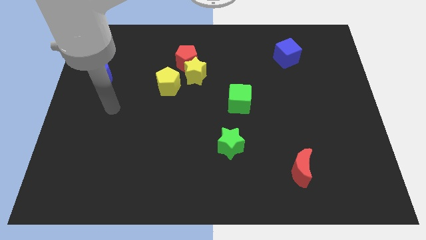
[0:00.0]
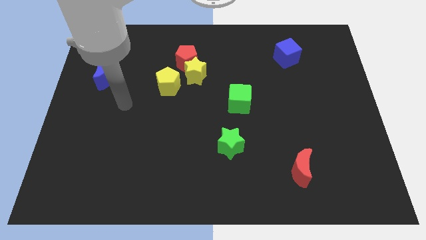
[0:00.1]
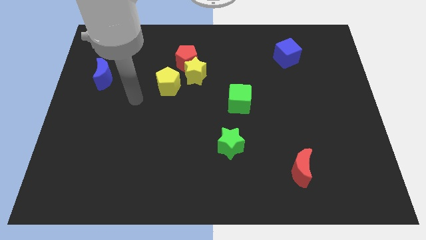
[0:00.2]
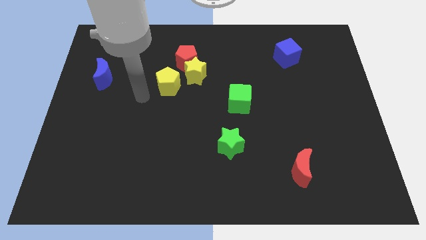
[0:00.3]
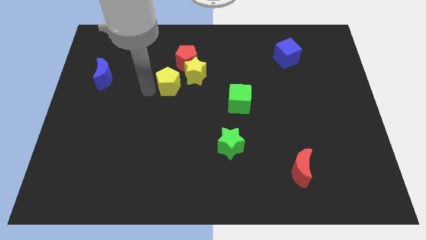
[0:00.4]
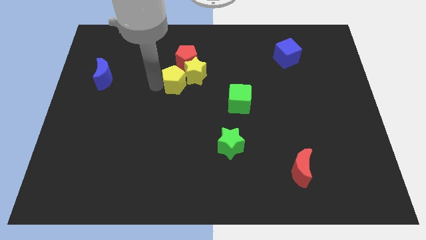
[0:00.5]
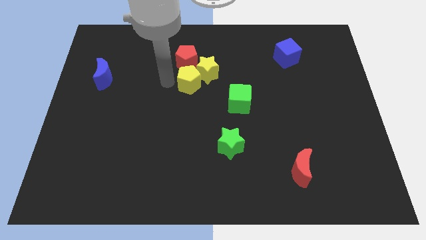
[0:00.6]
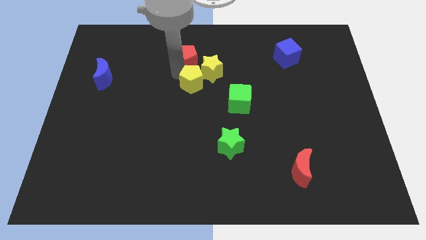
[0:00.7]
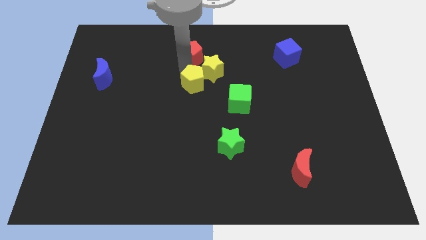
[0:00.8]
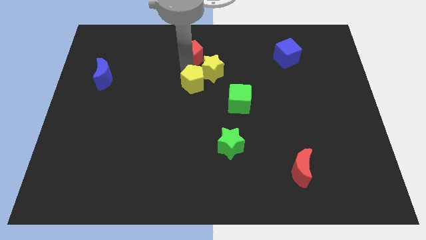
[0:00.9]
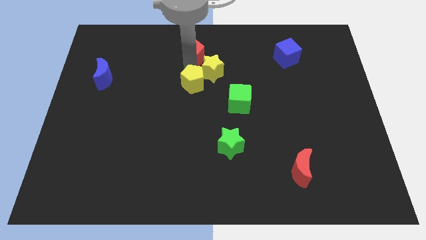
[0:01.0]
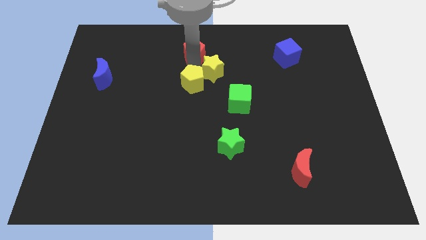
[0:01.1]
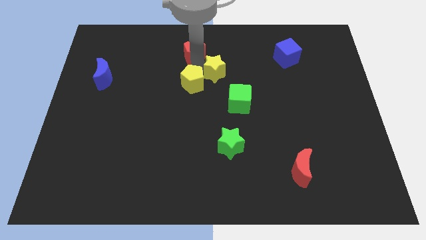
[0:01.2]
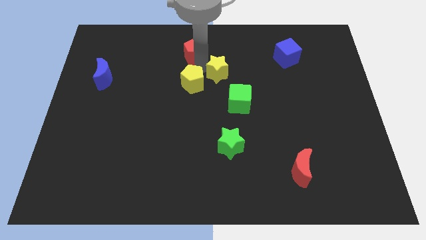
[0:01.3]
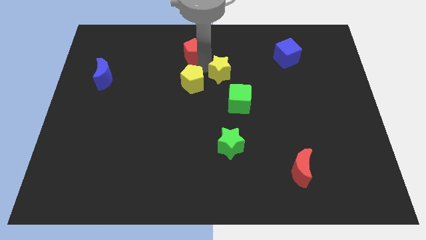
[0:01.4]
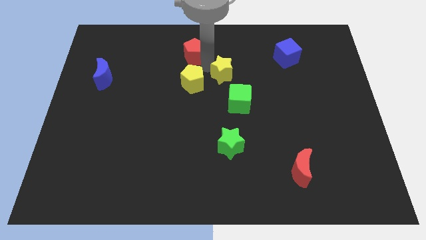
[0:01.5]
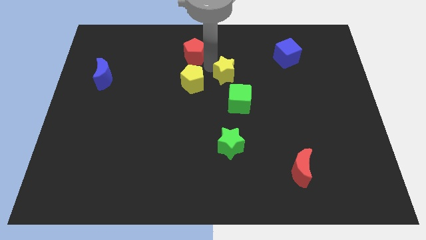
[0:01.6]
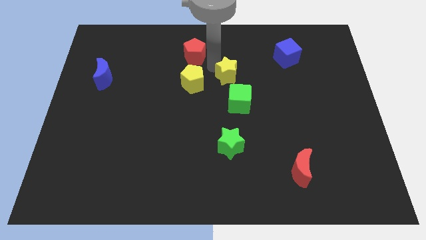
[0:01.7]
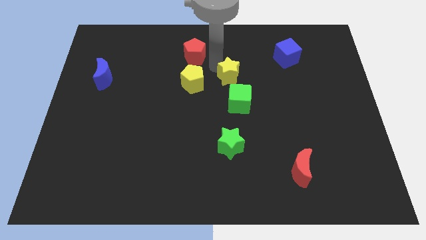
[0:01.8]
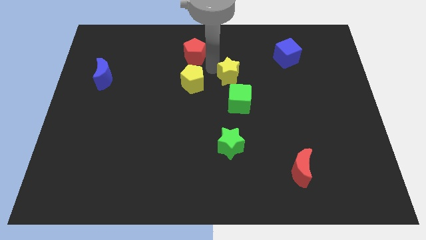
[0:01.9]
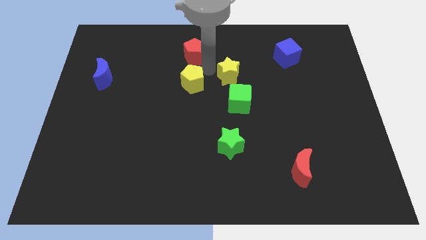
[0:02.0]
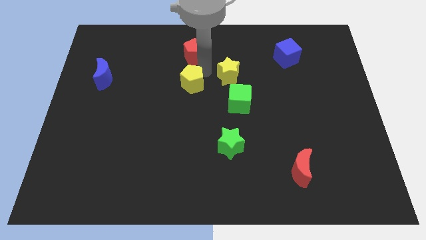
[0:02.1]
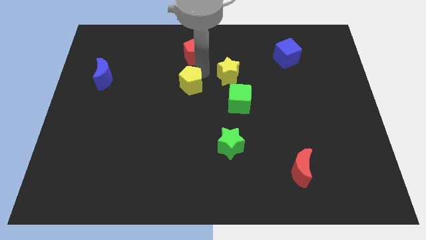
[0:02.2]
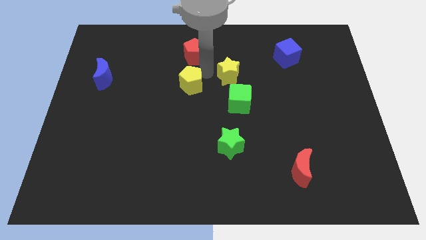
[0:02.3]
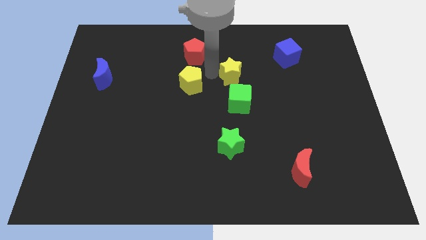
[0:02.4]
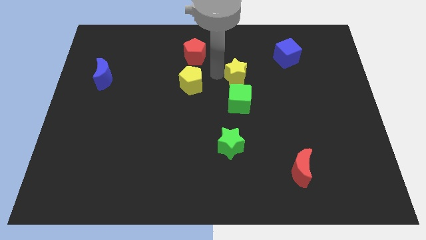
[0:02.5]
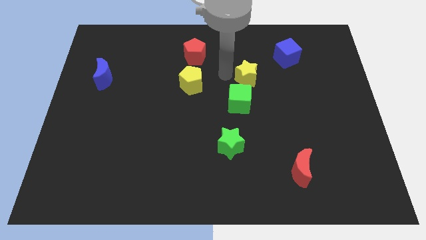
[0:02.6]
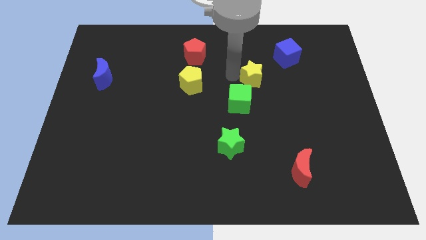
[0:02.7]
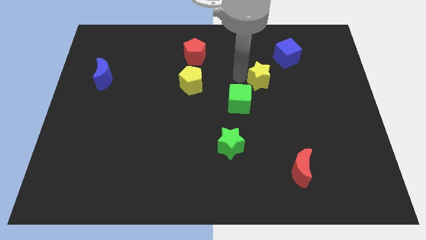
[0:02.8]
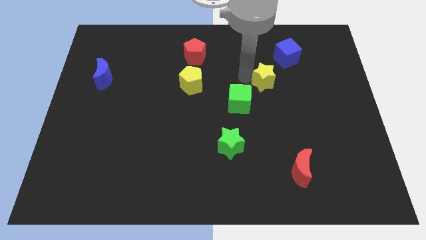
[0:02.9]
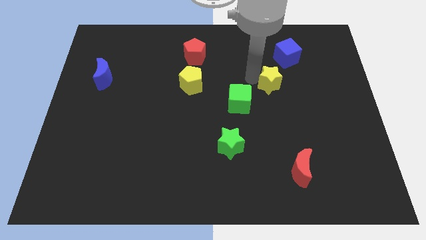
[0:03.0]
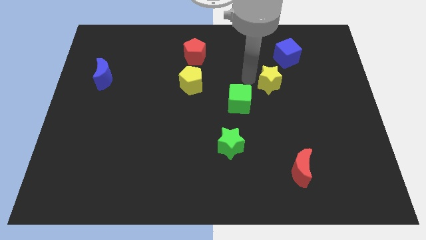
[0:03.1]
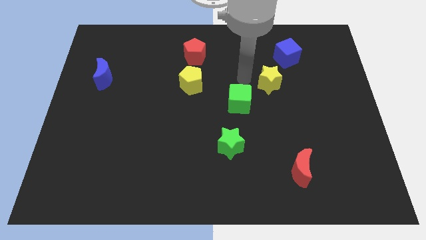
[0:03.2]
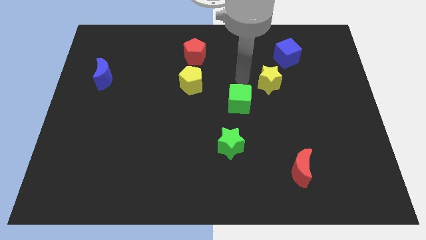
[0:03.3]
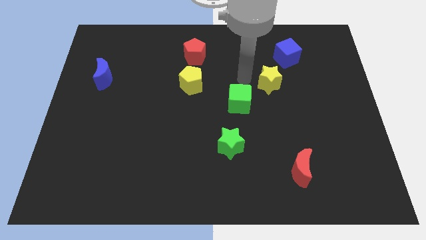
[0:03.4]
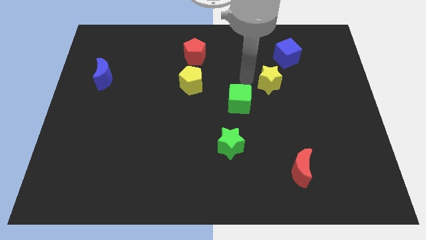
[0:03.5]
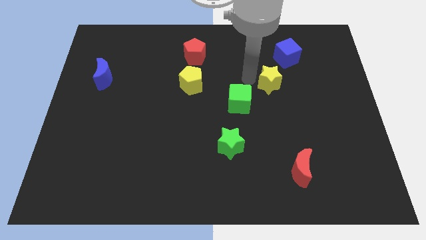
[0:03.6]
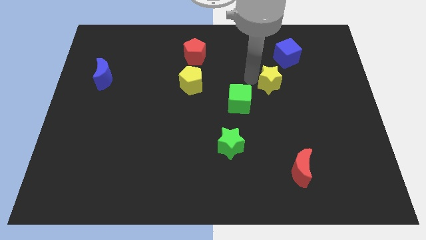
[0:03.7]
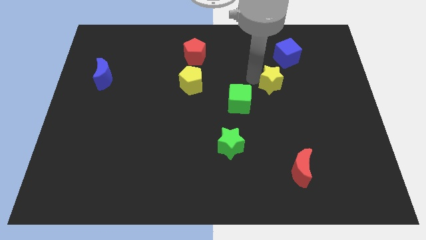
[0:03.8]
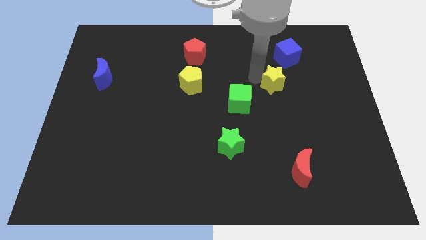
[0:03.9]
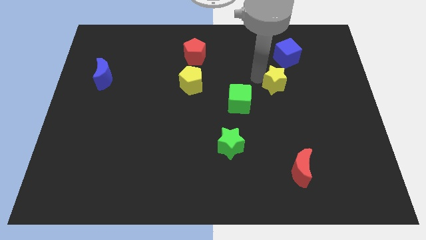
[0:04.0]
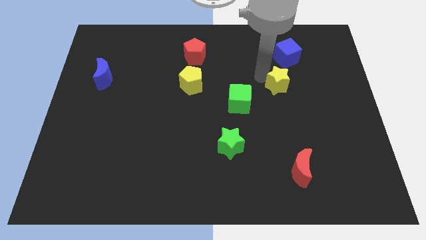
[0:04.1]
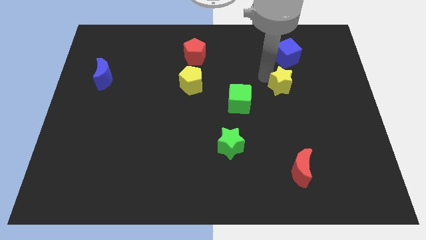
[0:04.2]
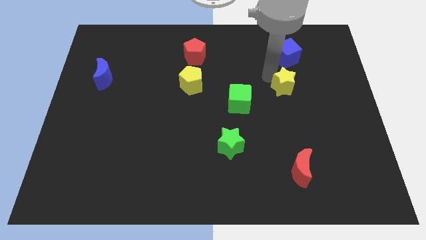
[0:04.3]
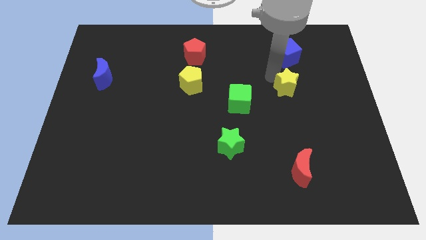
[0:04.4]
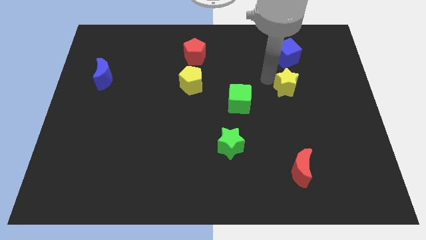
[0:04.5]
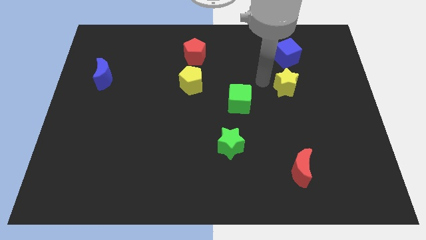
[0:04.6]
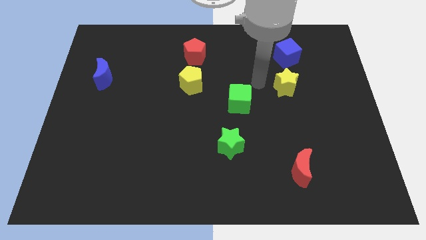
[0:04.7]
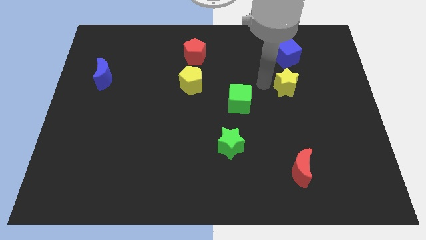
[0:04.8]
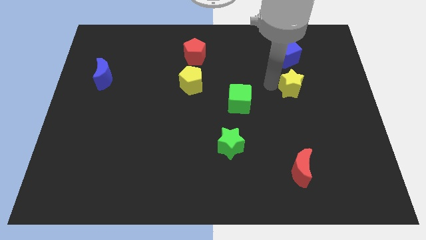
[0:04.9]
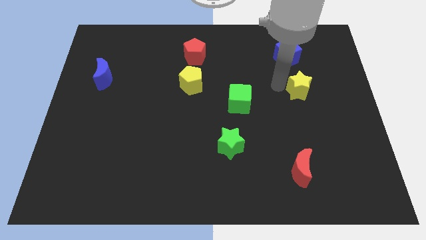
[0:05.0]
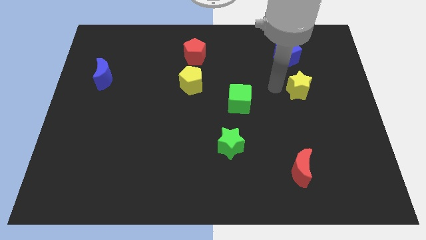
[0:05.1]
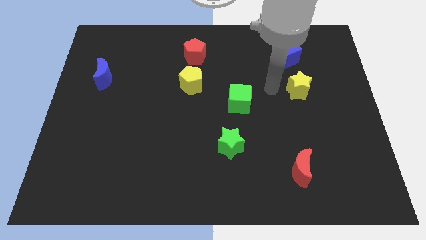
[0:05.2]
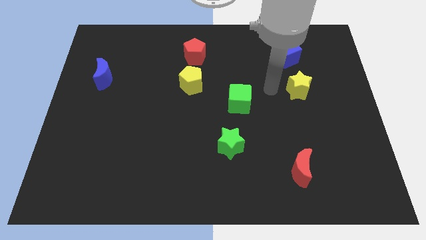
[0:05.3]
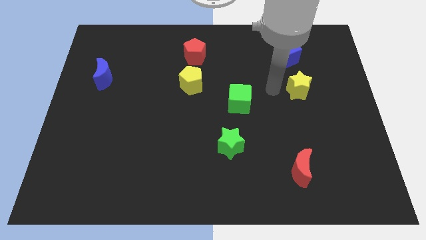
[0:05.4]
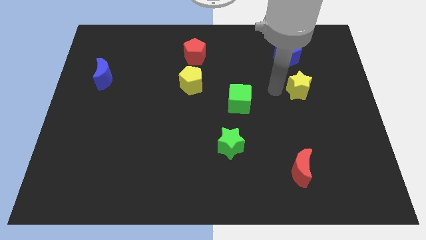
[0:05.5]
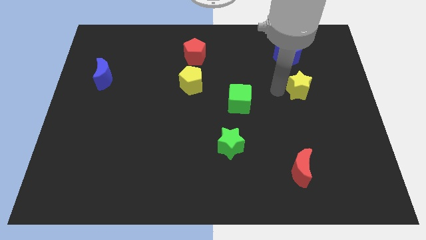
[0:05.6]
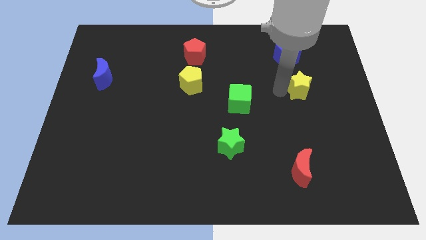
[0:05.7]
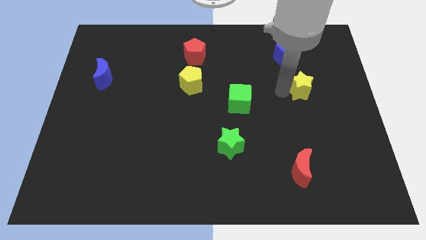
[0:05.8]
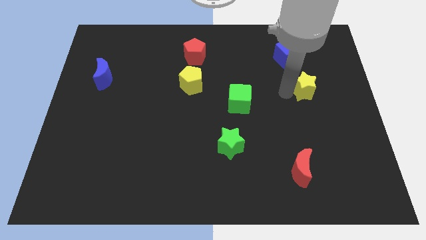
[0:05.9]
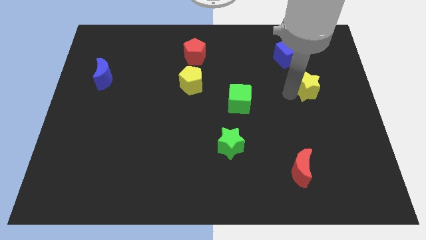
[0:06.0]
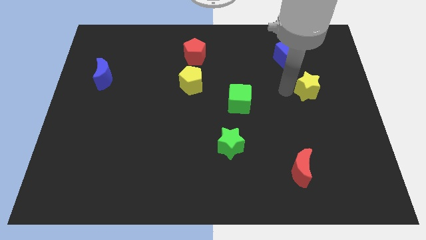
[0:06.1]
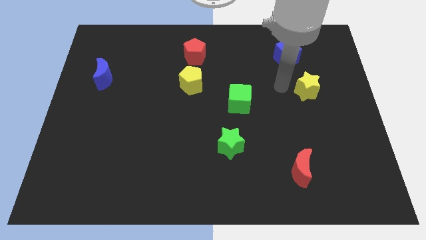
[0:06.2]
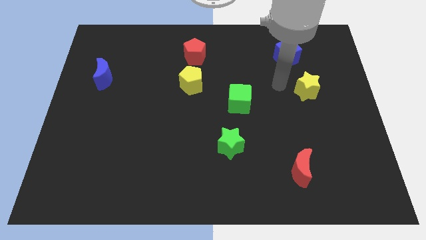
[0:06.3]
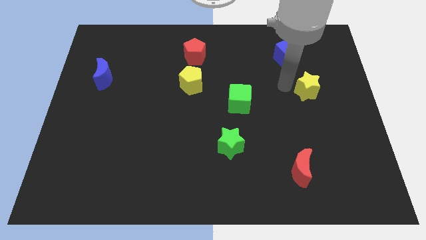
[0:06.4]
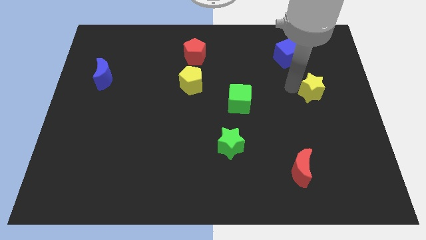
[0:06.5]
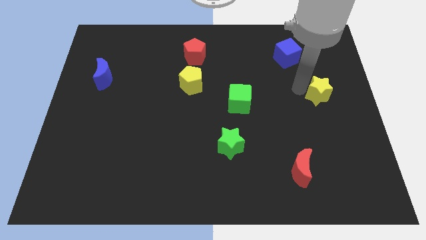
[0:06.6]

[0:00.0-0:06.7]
push the yellow star to the right side

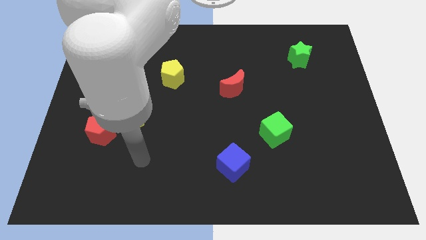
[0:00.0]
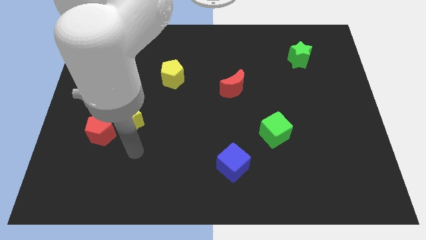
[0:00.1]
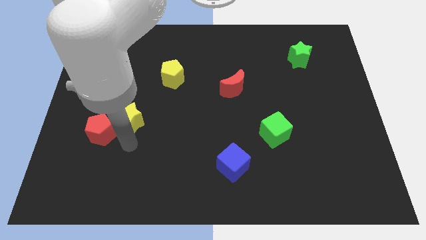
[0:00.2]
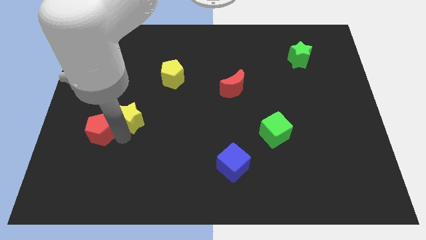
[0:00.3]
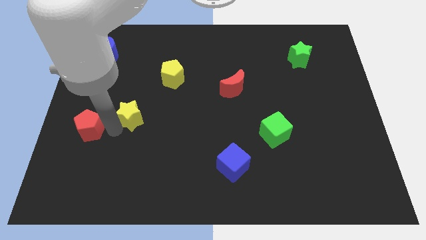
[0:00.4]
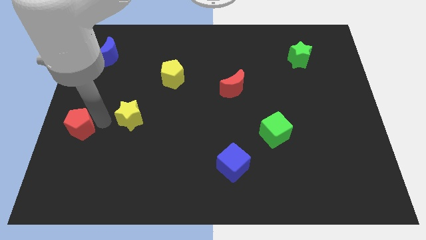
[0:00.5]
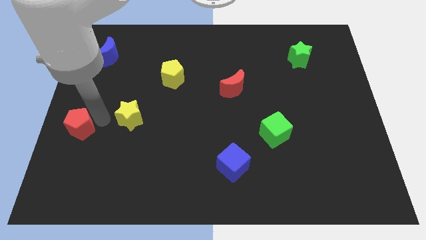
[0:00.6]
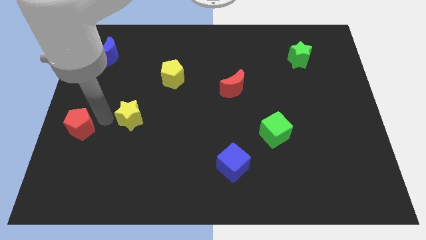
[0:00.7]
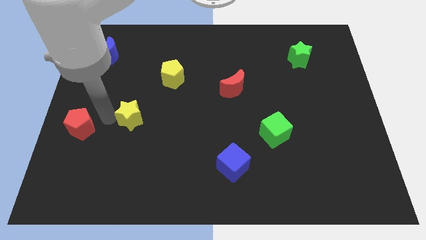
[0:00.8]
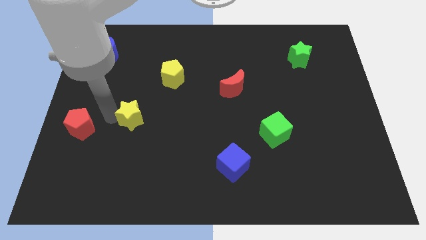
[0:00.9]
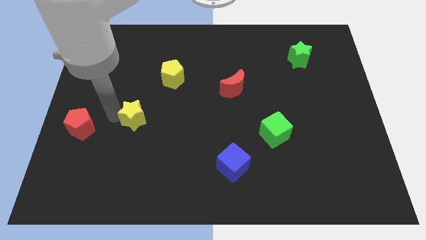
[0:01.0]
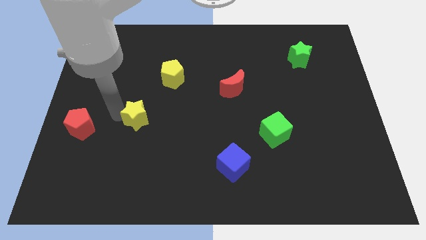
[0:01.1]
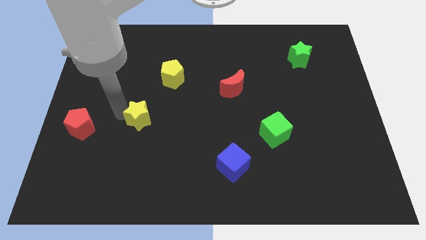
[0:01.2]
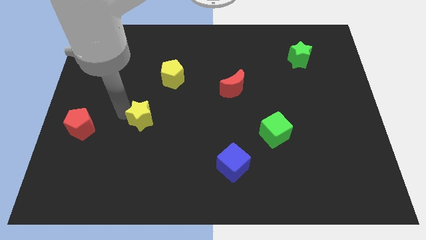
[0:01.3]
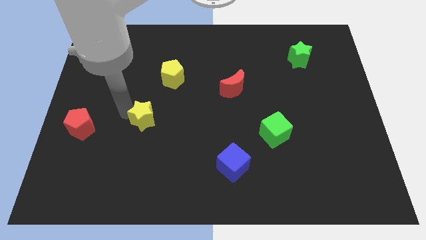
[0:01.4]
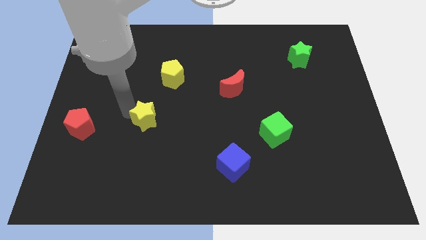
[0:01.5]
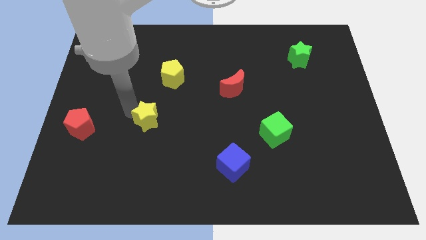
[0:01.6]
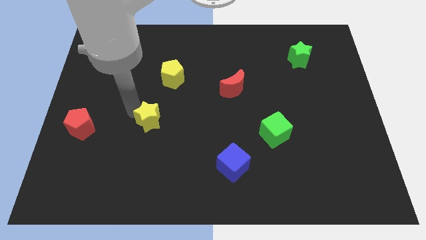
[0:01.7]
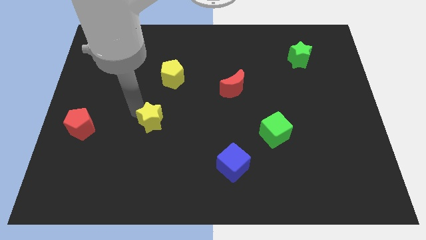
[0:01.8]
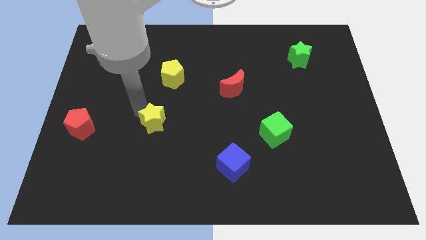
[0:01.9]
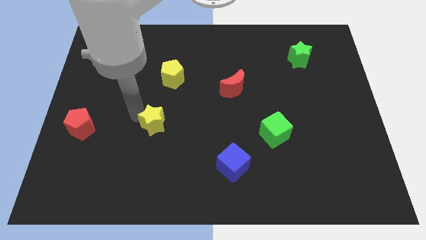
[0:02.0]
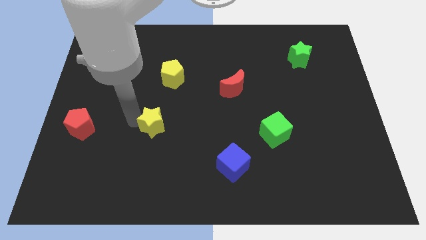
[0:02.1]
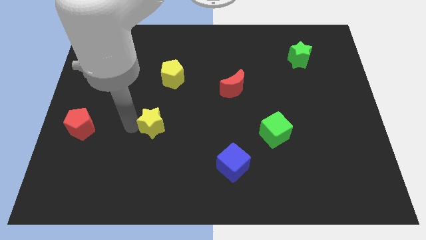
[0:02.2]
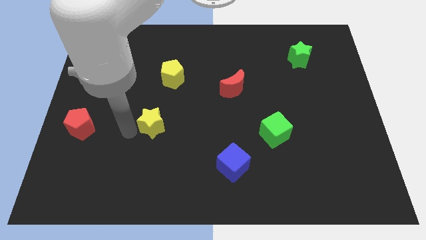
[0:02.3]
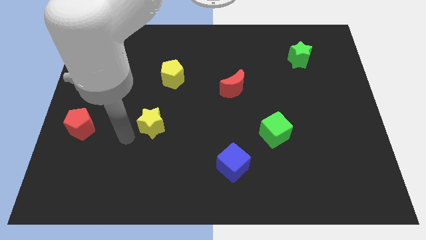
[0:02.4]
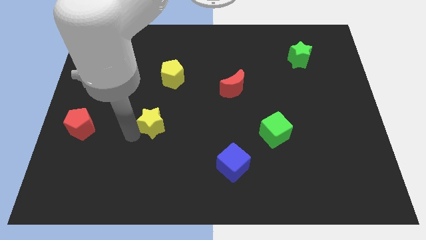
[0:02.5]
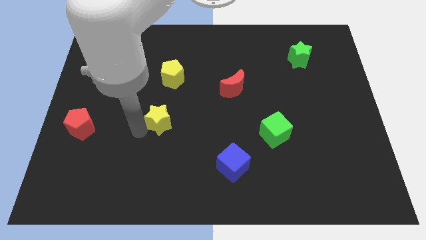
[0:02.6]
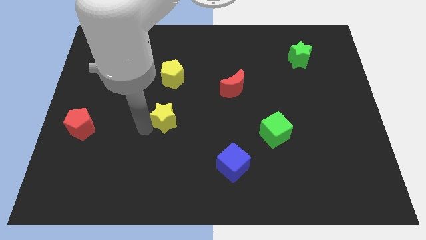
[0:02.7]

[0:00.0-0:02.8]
slide the yellow star to the center of the board
